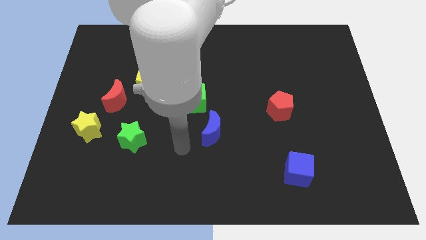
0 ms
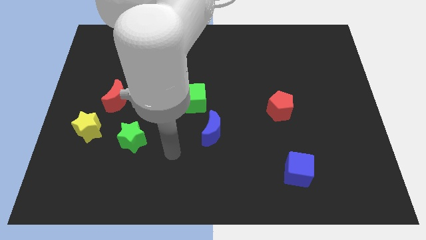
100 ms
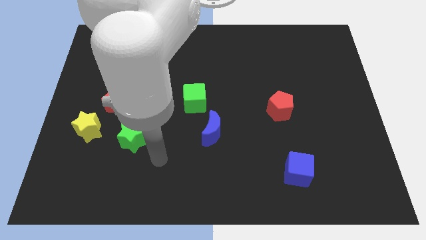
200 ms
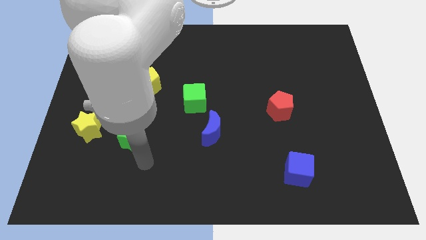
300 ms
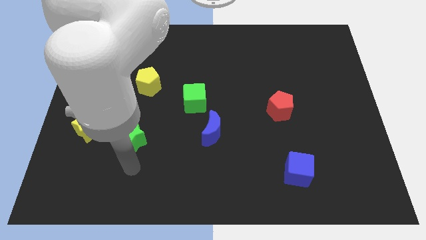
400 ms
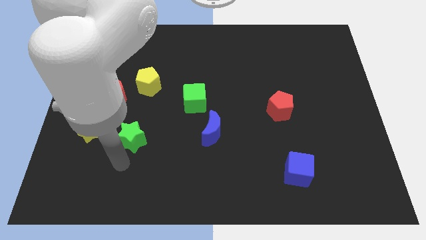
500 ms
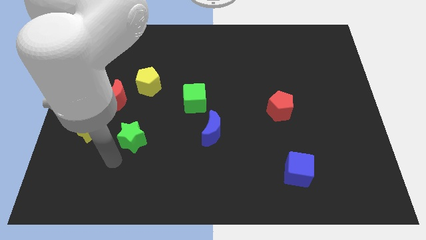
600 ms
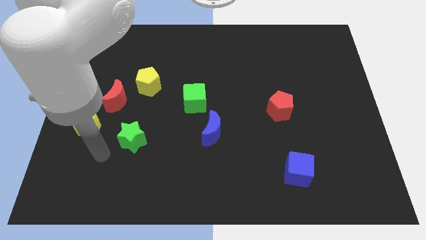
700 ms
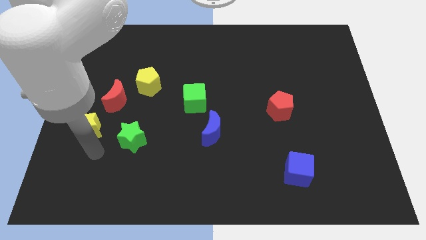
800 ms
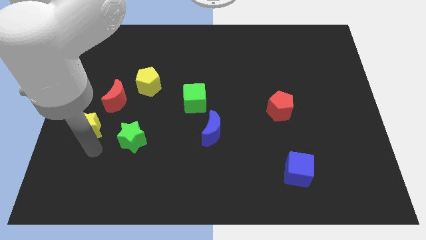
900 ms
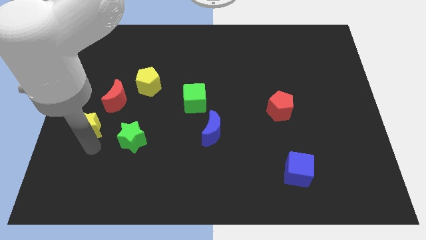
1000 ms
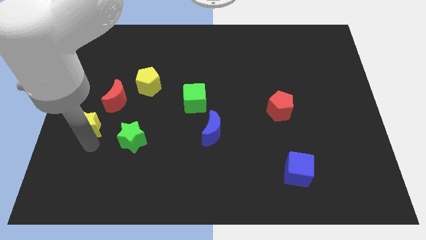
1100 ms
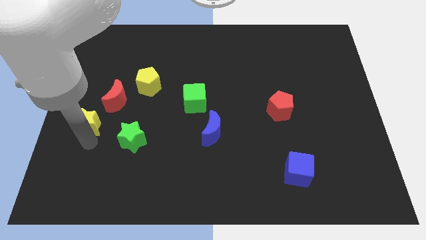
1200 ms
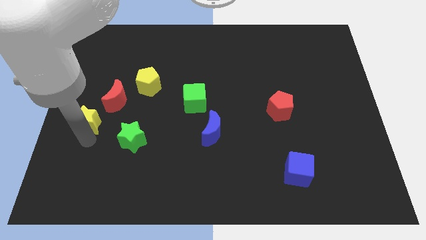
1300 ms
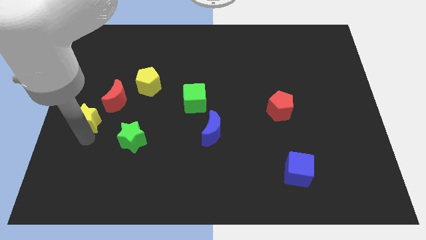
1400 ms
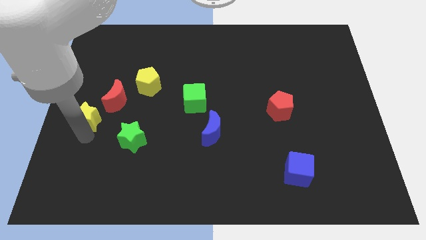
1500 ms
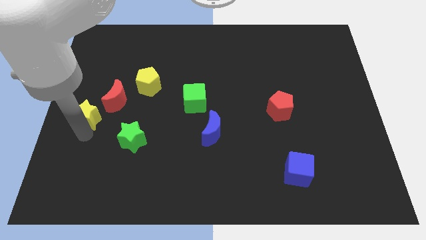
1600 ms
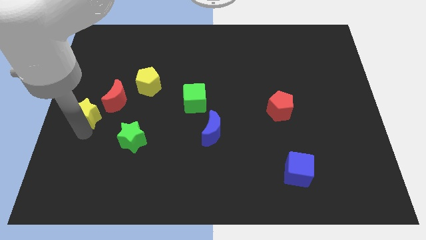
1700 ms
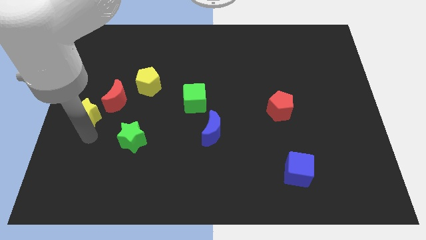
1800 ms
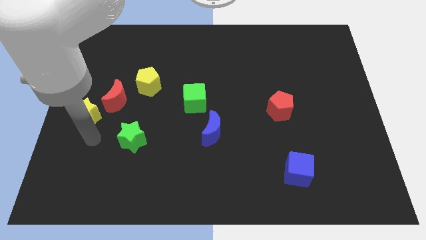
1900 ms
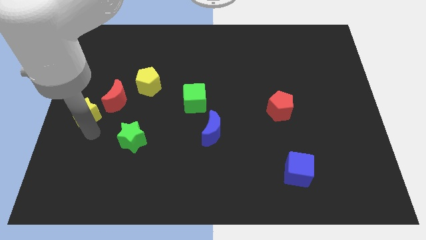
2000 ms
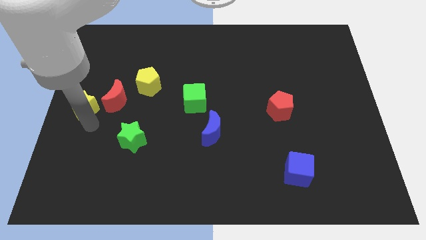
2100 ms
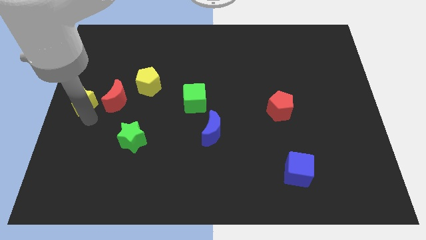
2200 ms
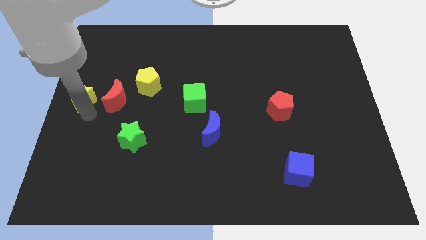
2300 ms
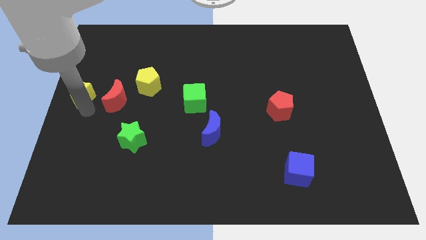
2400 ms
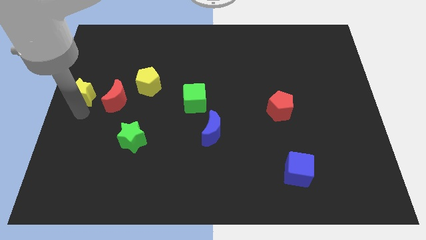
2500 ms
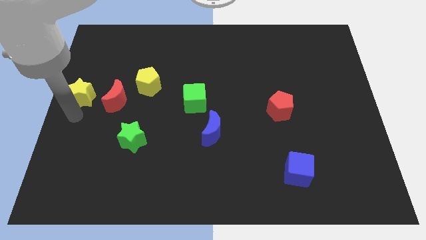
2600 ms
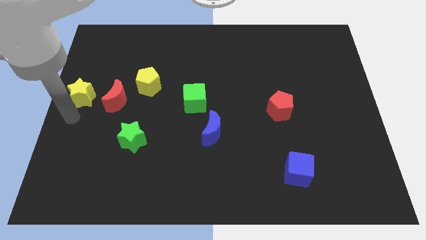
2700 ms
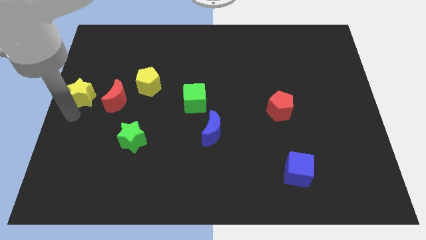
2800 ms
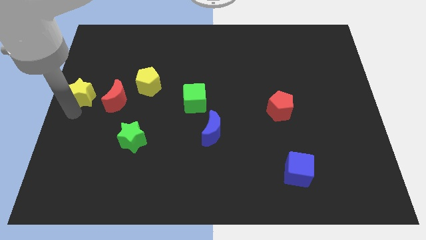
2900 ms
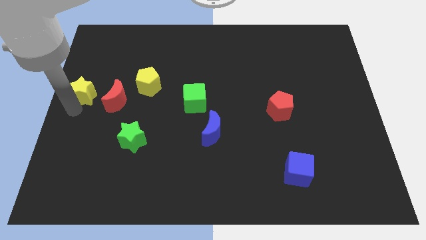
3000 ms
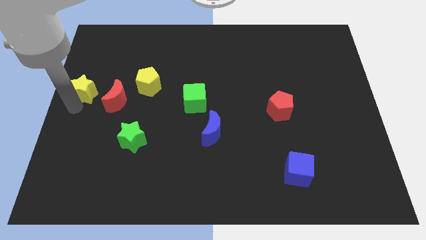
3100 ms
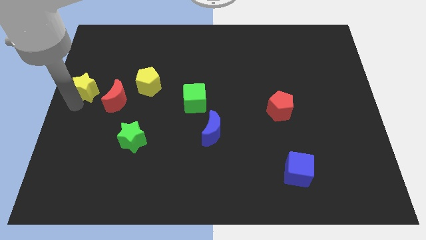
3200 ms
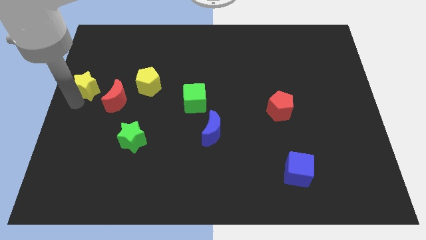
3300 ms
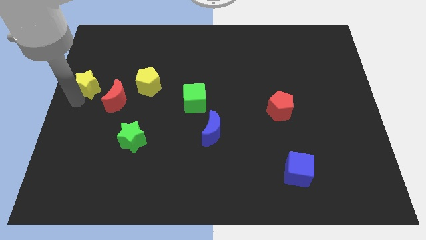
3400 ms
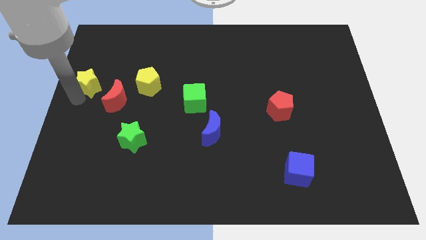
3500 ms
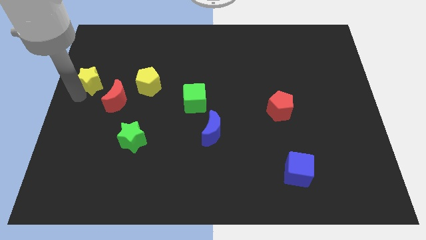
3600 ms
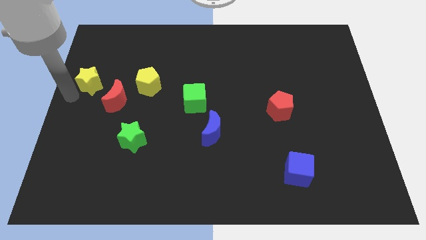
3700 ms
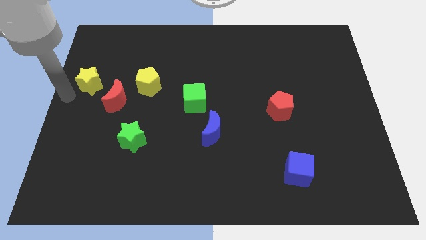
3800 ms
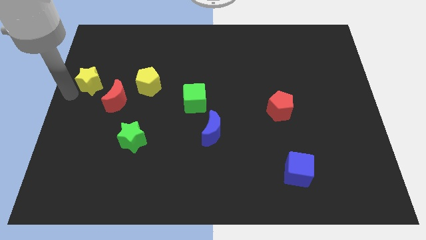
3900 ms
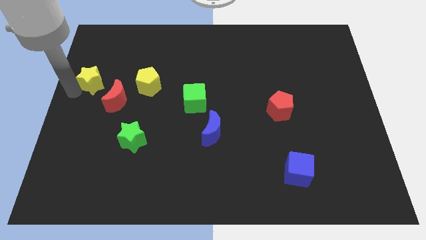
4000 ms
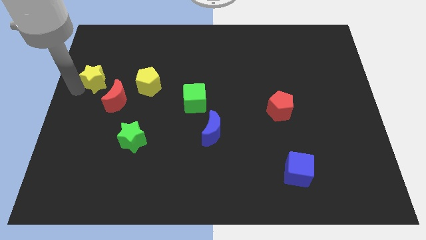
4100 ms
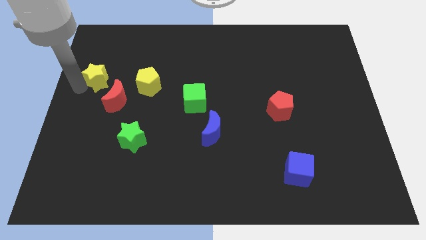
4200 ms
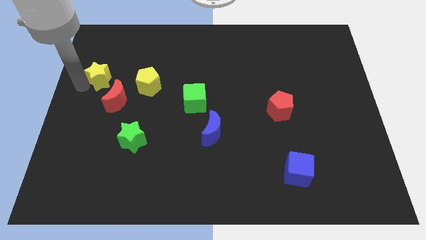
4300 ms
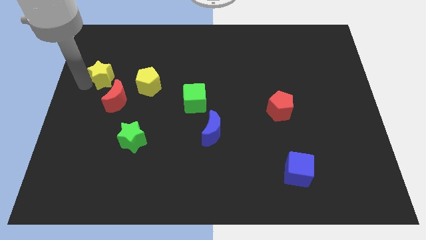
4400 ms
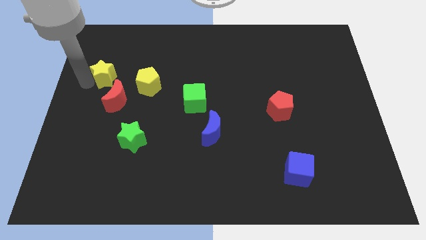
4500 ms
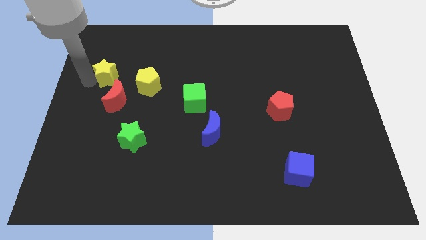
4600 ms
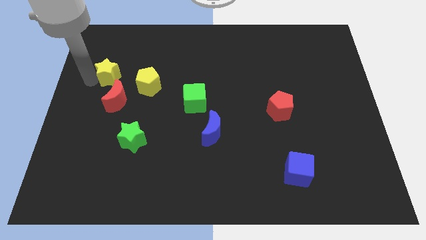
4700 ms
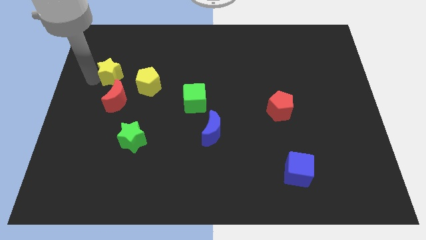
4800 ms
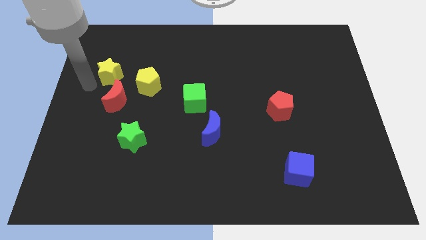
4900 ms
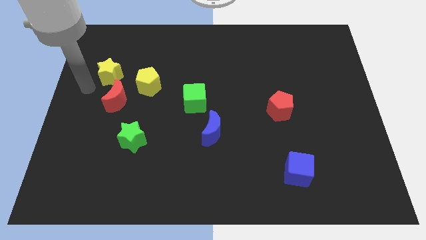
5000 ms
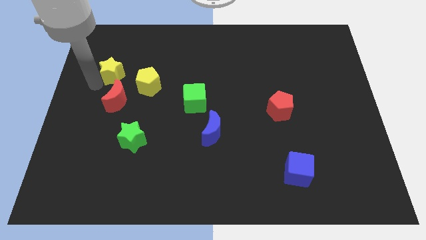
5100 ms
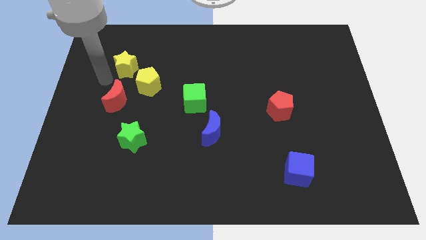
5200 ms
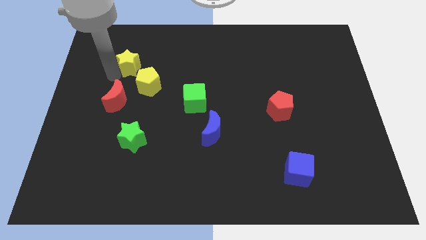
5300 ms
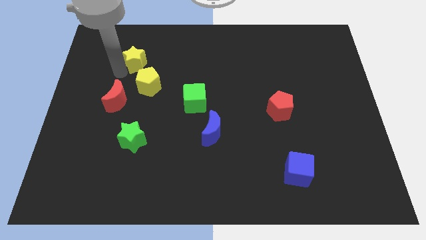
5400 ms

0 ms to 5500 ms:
move the yellow star to the top side of the yellow pentagon

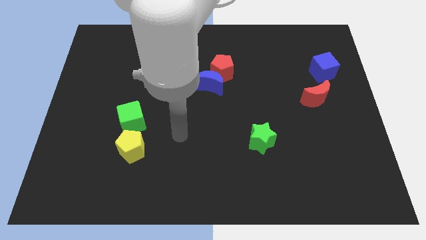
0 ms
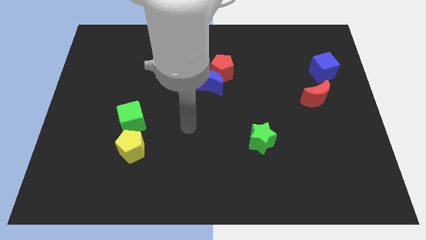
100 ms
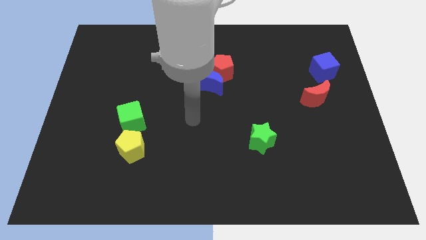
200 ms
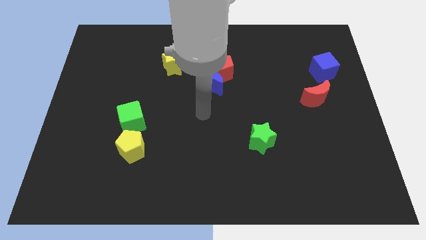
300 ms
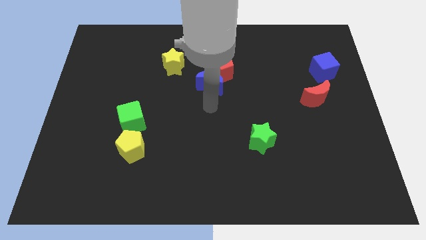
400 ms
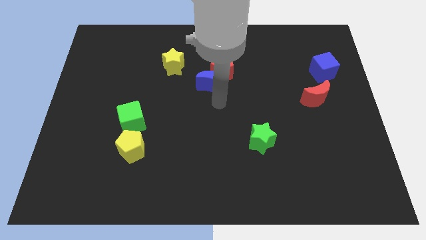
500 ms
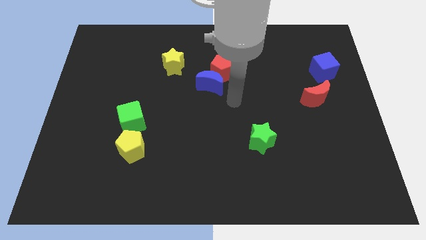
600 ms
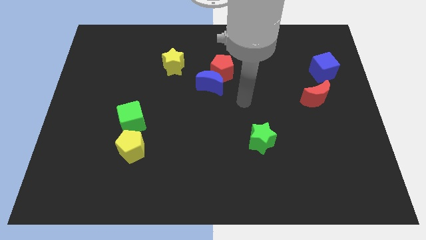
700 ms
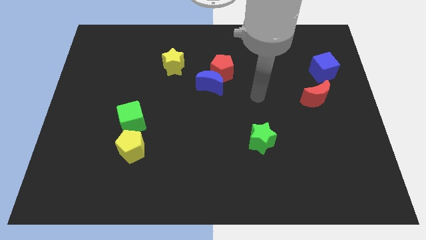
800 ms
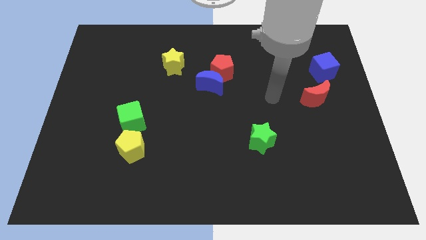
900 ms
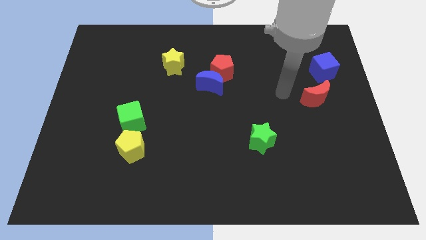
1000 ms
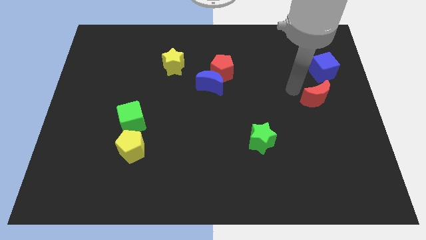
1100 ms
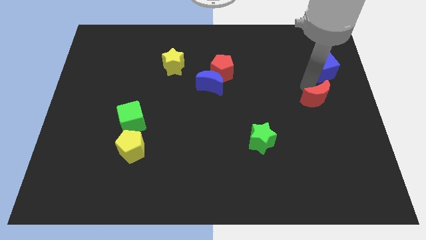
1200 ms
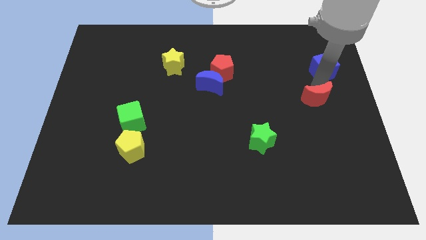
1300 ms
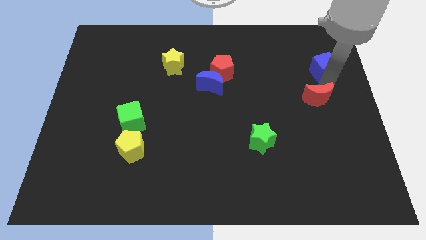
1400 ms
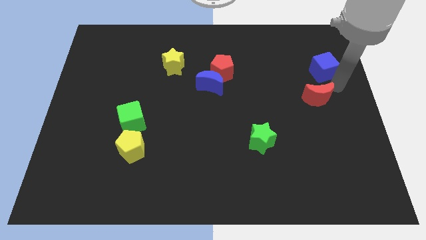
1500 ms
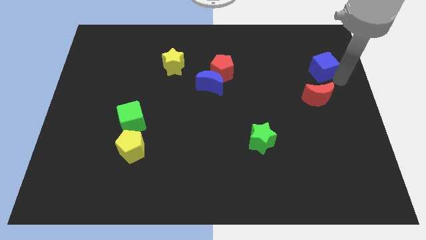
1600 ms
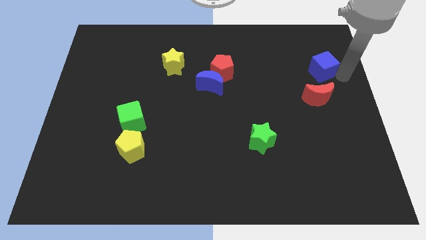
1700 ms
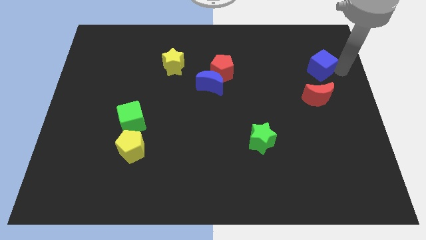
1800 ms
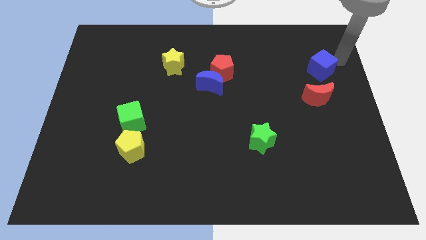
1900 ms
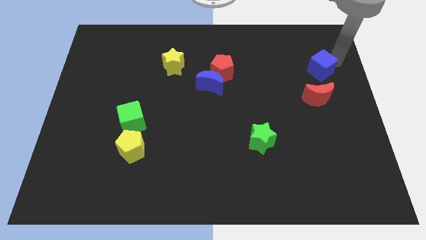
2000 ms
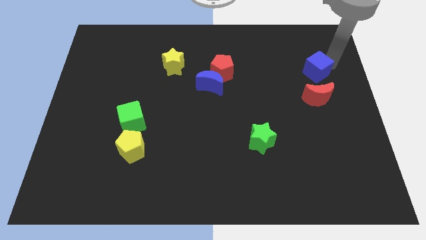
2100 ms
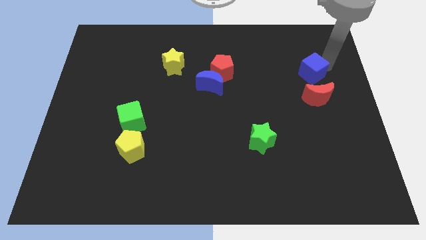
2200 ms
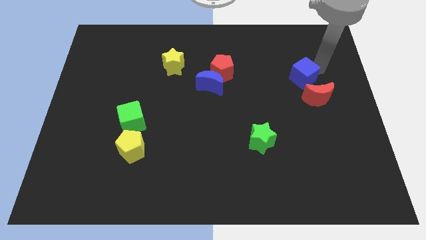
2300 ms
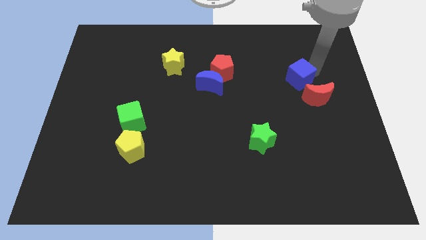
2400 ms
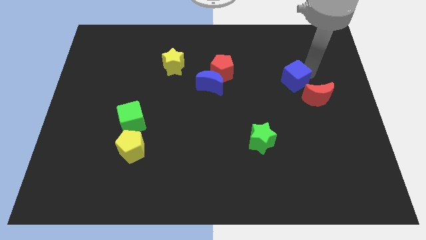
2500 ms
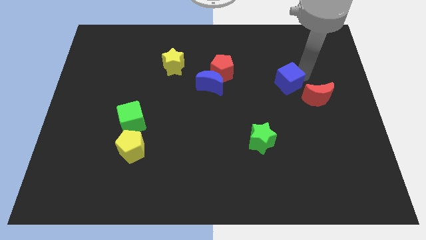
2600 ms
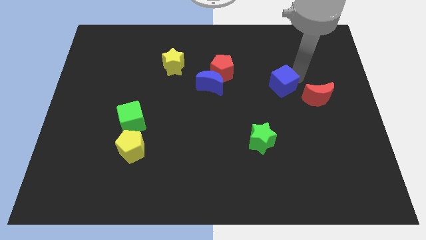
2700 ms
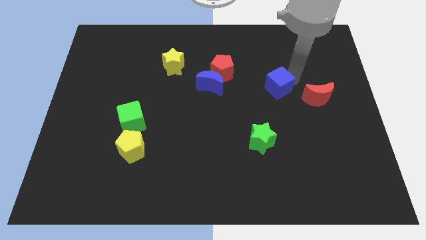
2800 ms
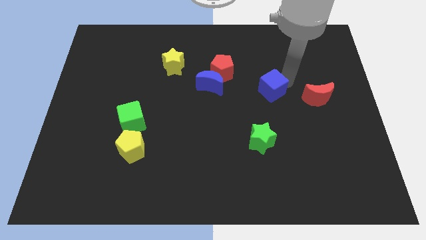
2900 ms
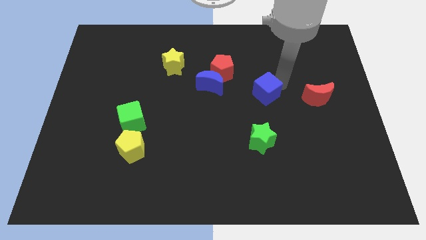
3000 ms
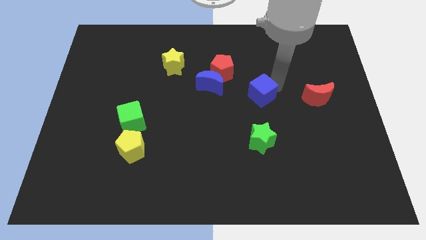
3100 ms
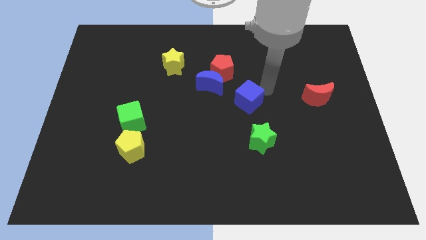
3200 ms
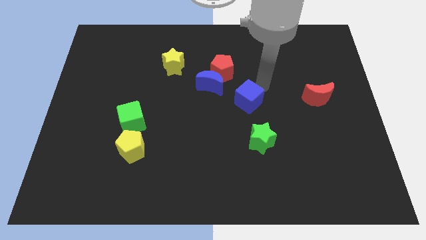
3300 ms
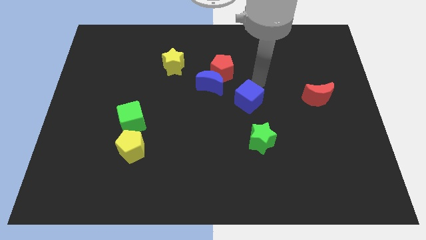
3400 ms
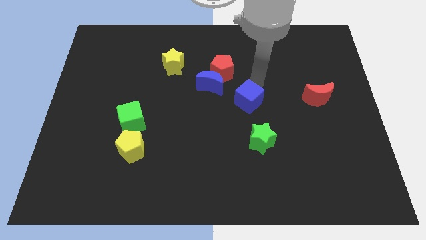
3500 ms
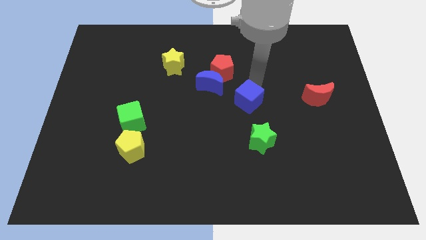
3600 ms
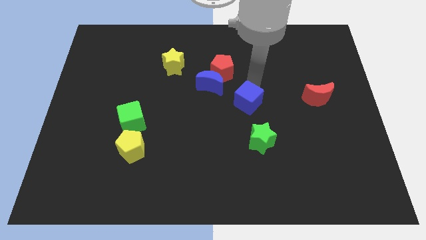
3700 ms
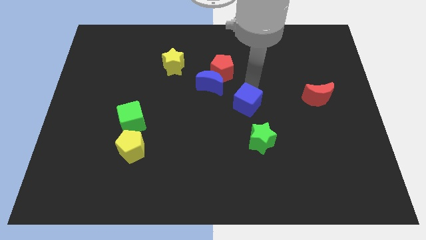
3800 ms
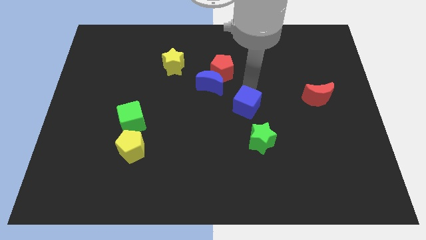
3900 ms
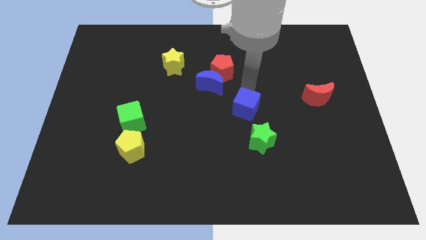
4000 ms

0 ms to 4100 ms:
put the blue cube diagonally up and to the left of the green star
